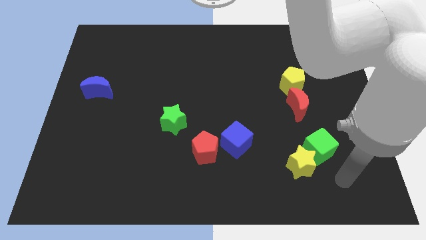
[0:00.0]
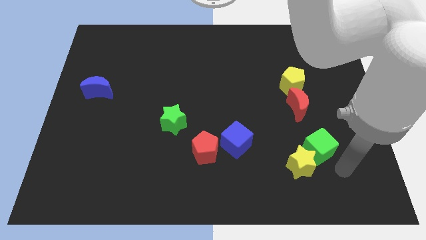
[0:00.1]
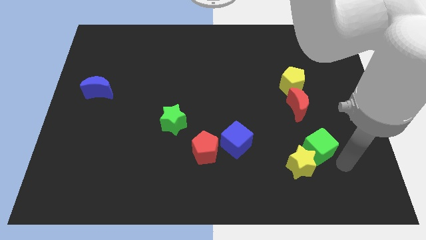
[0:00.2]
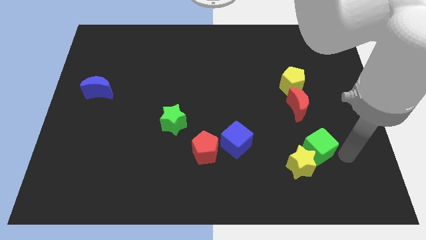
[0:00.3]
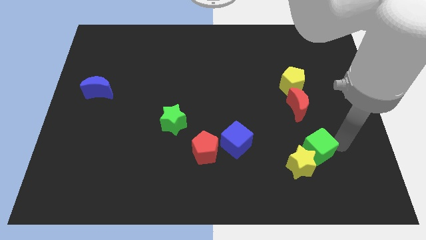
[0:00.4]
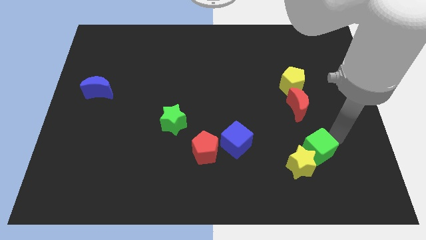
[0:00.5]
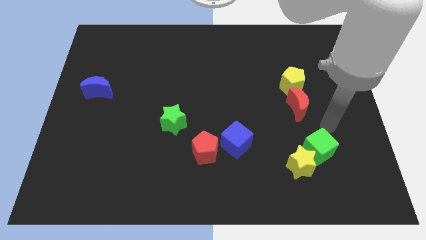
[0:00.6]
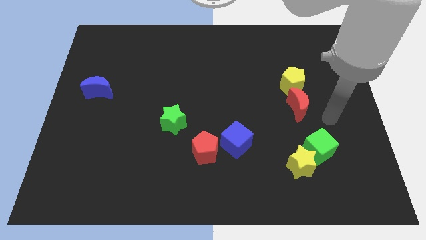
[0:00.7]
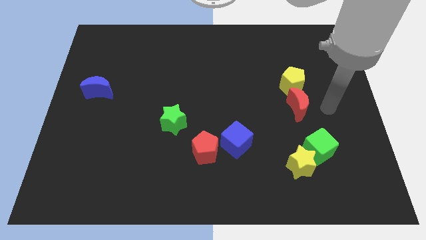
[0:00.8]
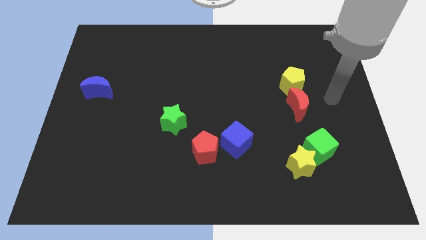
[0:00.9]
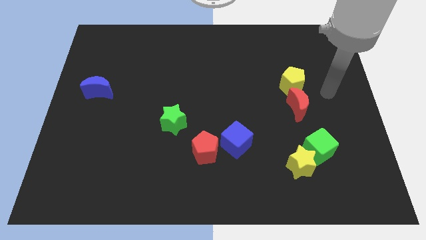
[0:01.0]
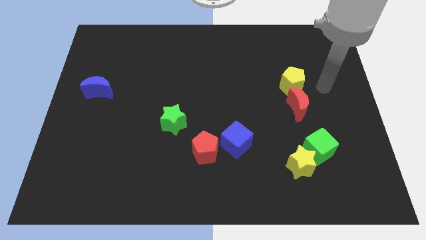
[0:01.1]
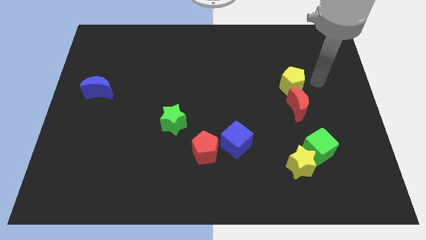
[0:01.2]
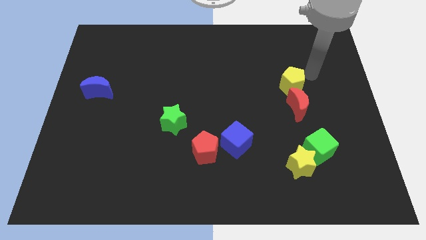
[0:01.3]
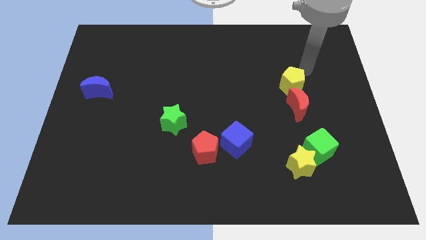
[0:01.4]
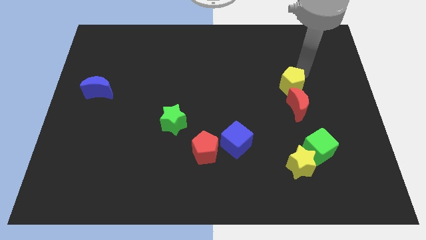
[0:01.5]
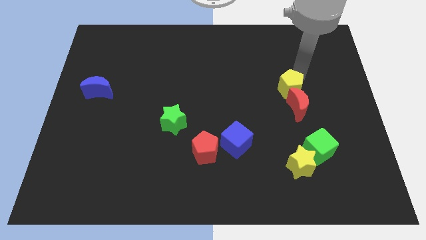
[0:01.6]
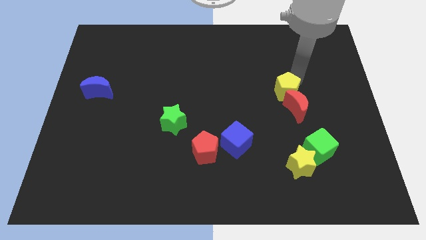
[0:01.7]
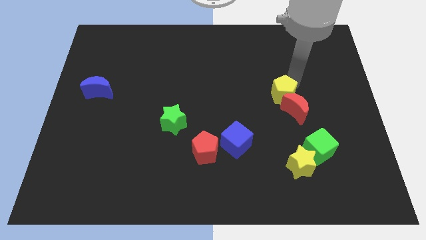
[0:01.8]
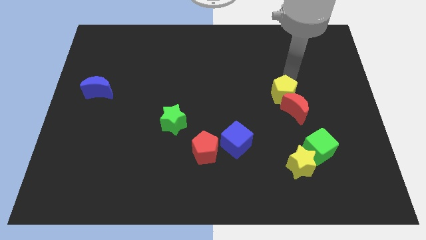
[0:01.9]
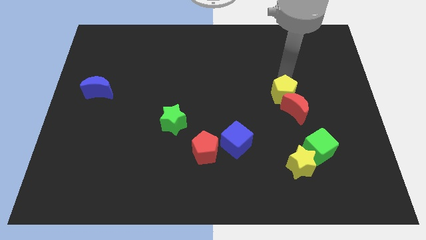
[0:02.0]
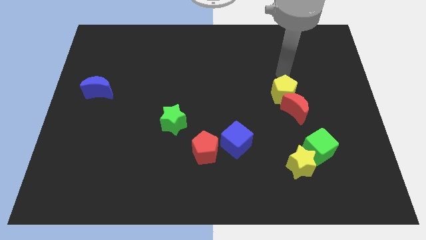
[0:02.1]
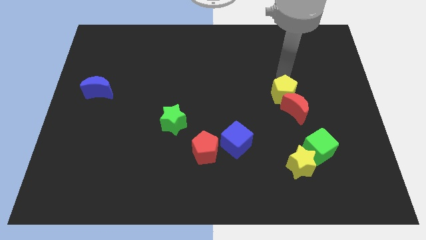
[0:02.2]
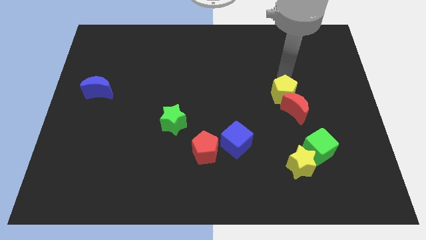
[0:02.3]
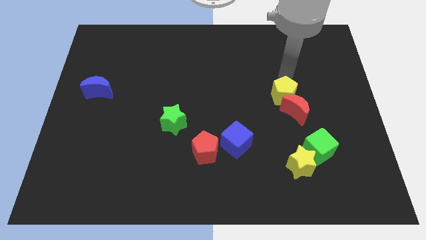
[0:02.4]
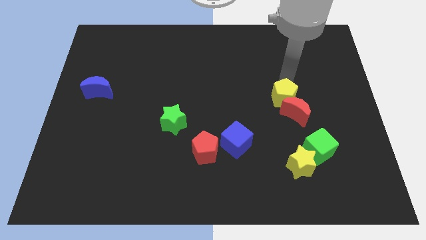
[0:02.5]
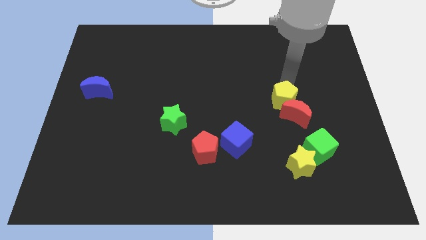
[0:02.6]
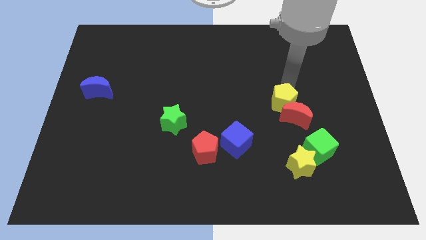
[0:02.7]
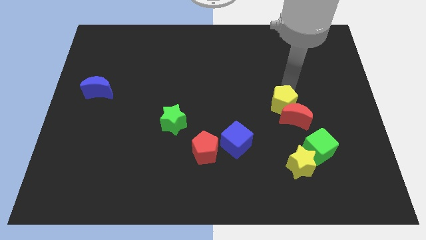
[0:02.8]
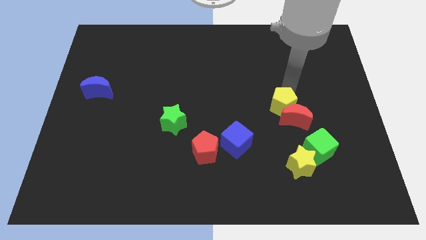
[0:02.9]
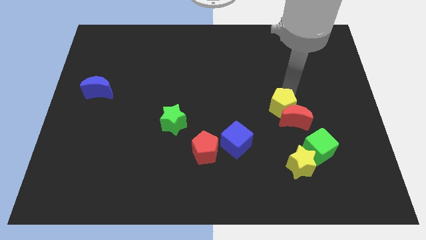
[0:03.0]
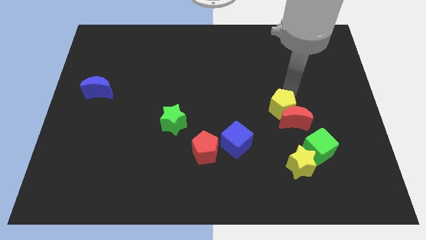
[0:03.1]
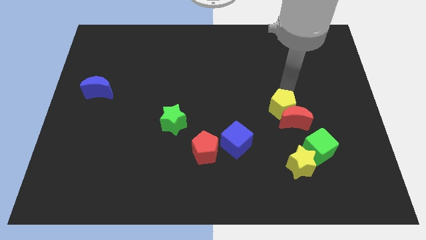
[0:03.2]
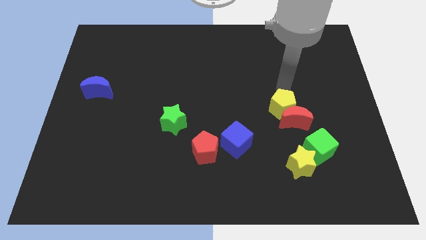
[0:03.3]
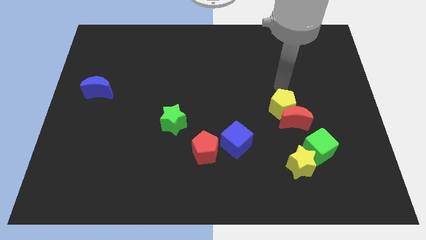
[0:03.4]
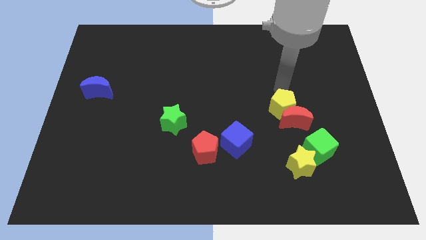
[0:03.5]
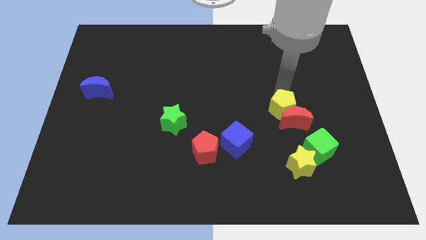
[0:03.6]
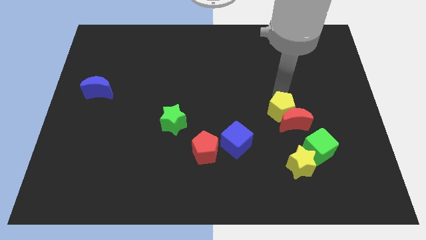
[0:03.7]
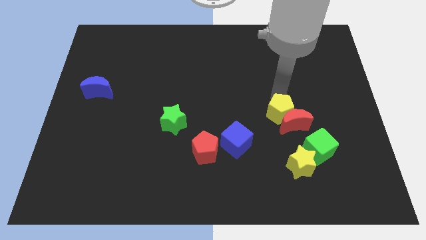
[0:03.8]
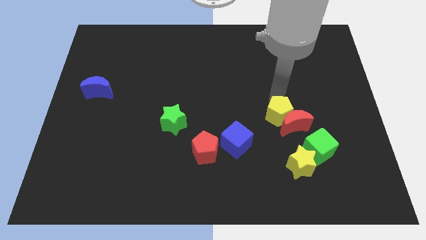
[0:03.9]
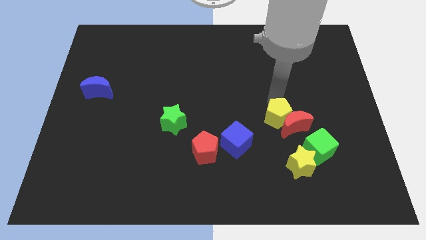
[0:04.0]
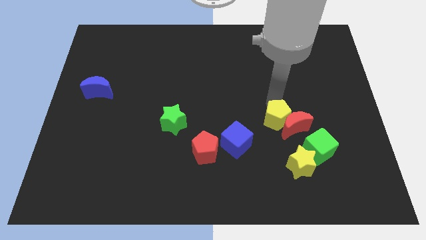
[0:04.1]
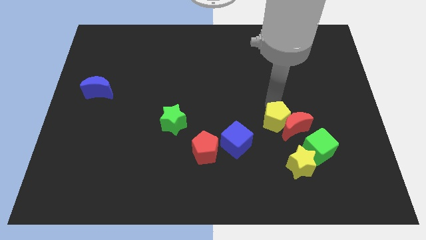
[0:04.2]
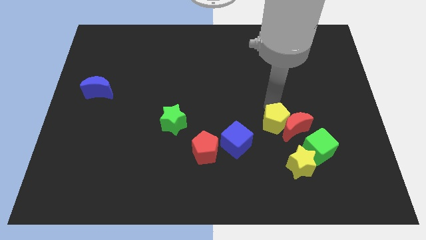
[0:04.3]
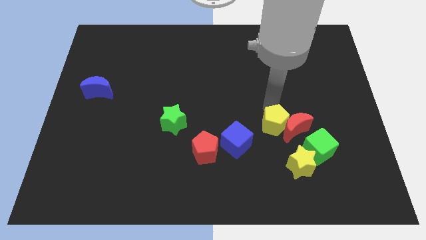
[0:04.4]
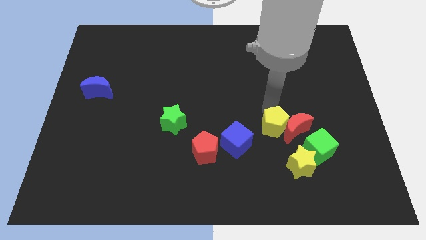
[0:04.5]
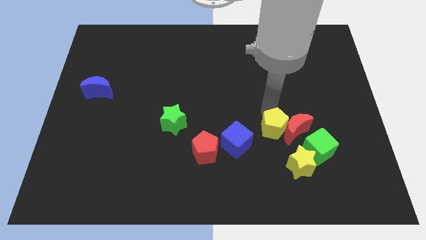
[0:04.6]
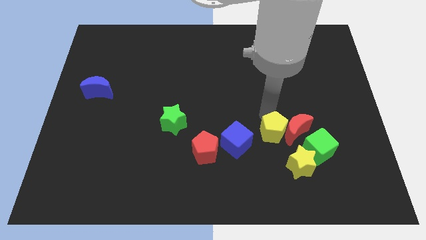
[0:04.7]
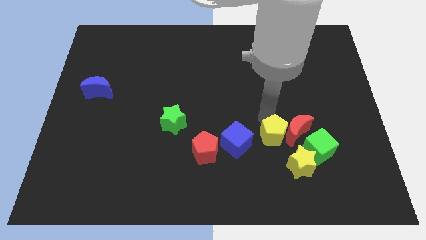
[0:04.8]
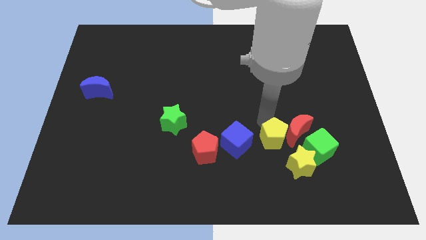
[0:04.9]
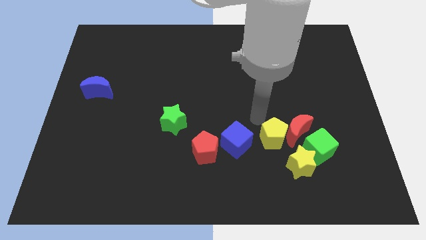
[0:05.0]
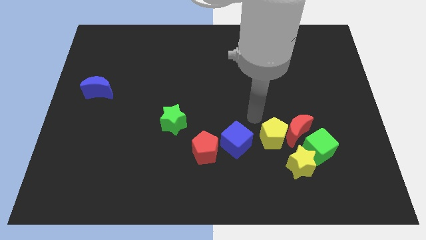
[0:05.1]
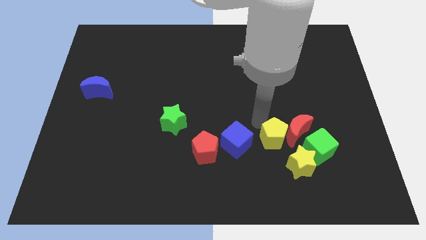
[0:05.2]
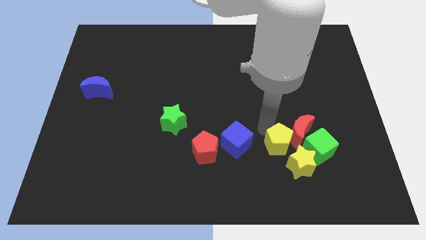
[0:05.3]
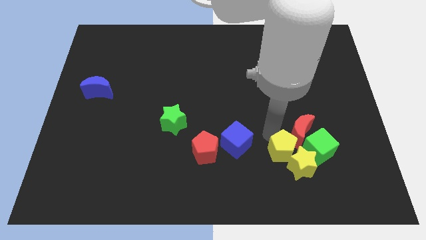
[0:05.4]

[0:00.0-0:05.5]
slide the yellow pentagon towards the yellow star

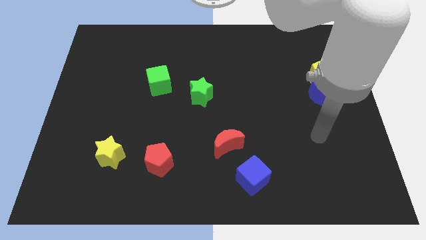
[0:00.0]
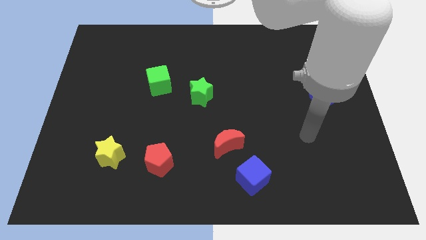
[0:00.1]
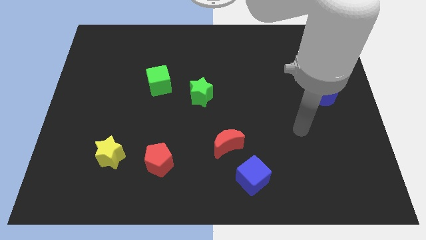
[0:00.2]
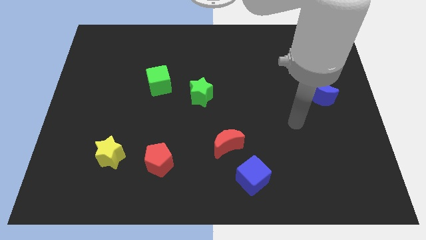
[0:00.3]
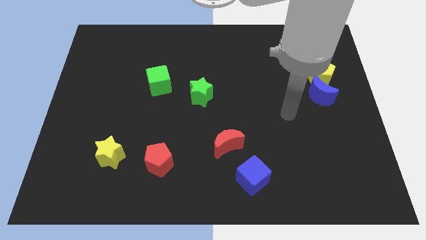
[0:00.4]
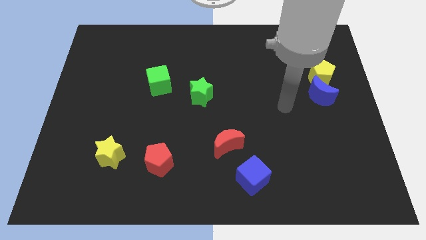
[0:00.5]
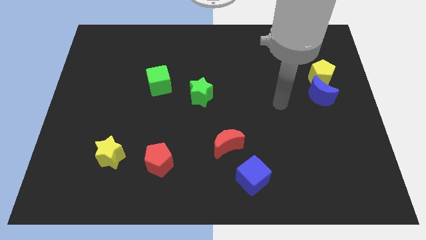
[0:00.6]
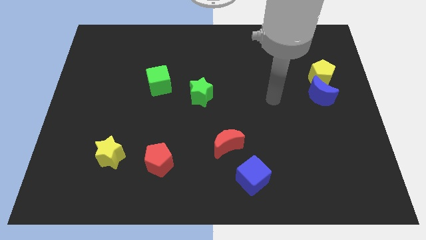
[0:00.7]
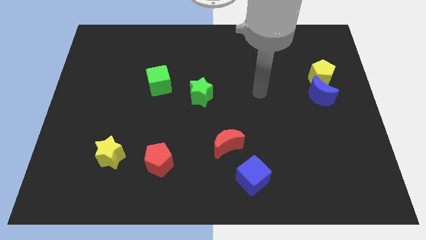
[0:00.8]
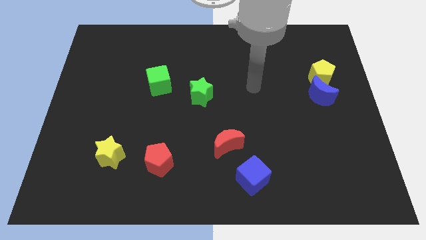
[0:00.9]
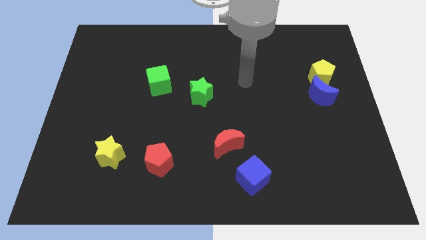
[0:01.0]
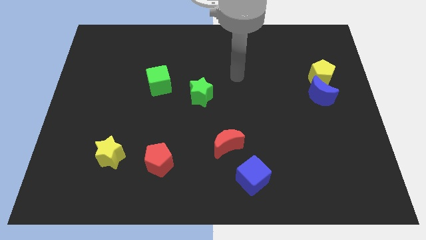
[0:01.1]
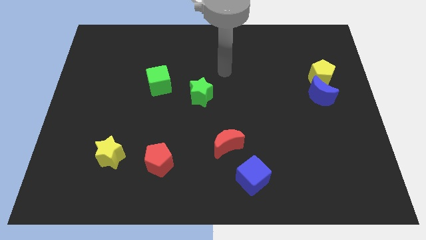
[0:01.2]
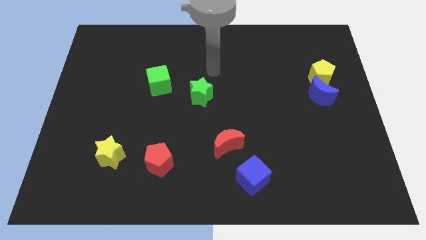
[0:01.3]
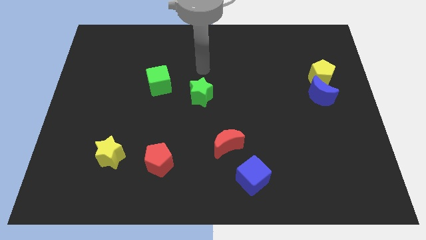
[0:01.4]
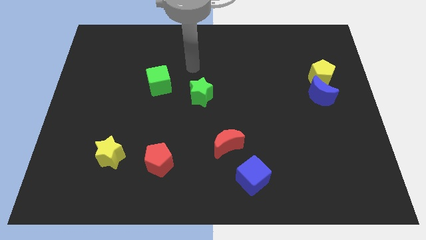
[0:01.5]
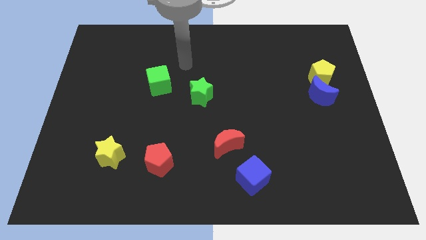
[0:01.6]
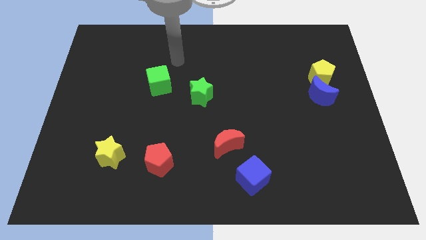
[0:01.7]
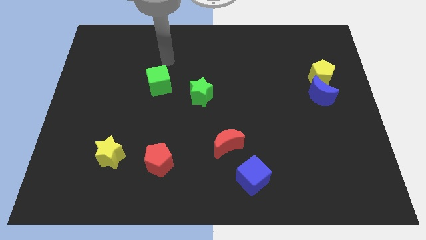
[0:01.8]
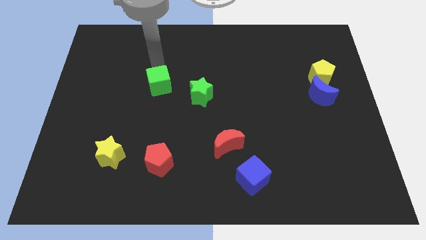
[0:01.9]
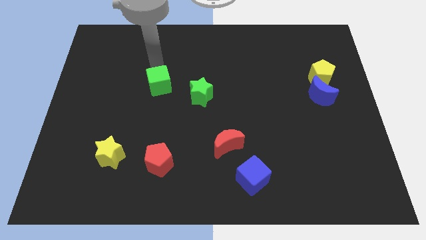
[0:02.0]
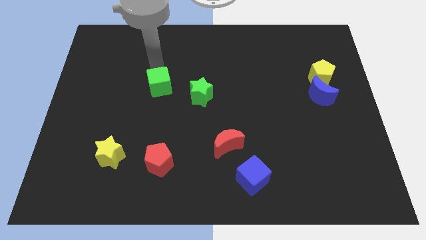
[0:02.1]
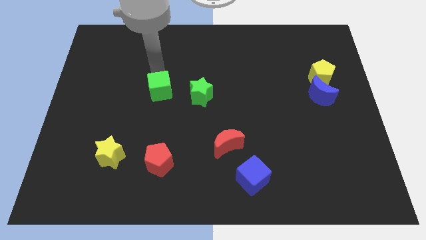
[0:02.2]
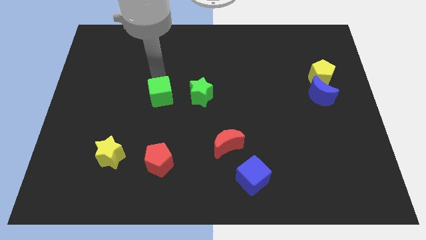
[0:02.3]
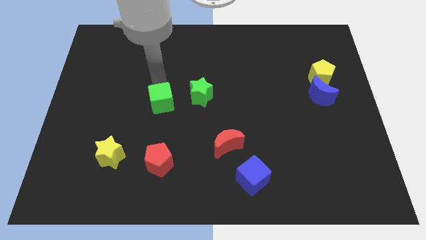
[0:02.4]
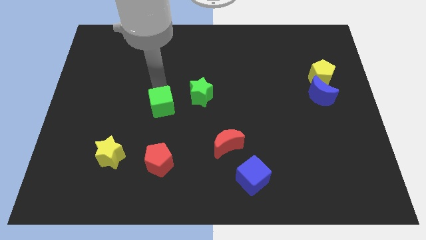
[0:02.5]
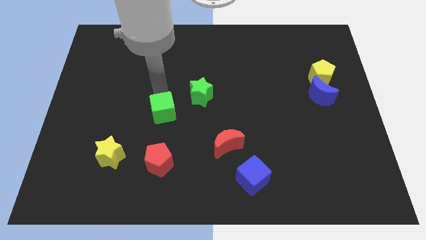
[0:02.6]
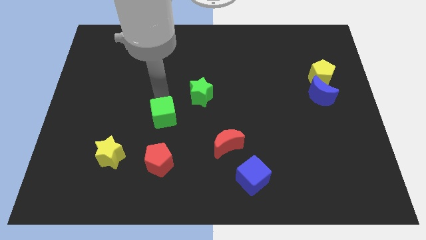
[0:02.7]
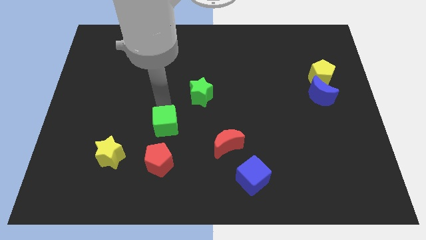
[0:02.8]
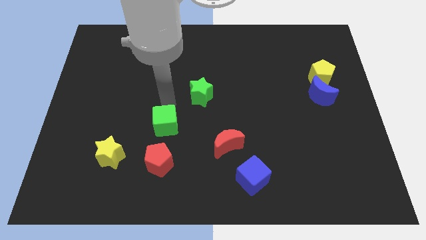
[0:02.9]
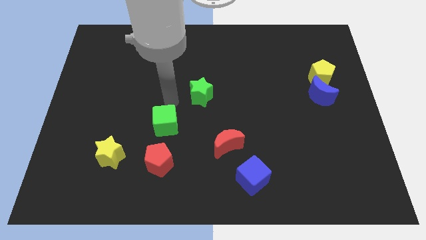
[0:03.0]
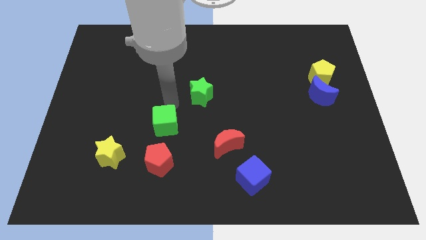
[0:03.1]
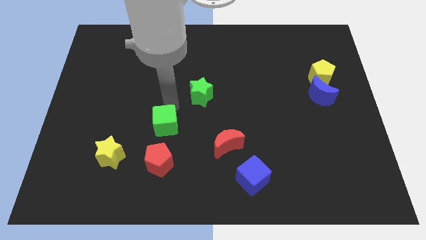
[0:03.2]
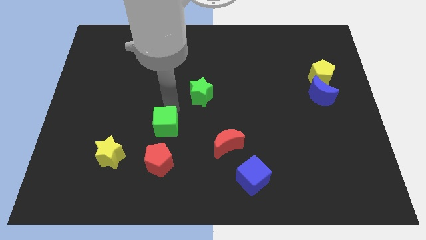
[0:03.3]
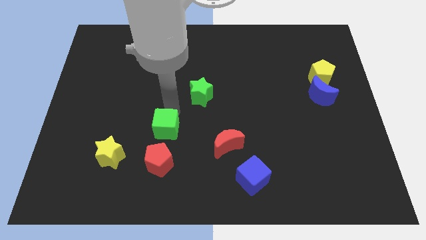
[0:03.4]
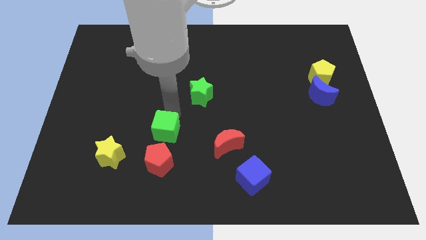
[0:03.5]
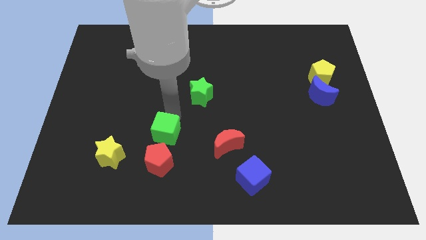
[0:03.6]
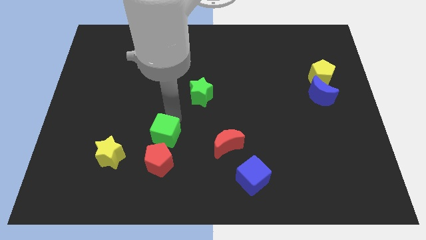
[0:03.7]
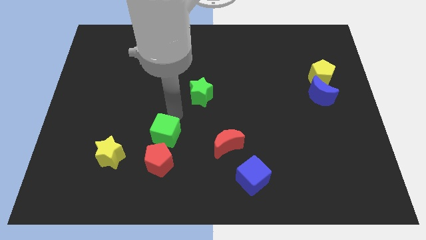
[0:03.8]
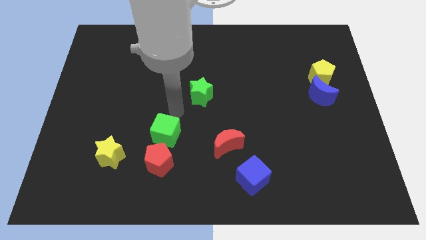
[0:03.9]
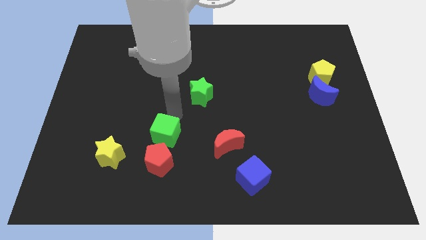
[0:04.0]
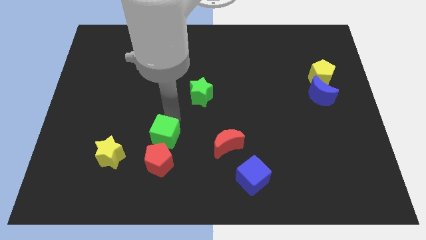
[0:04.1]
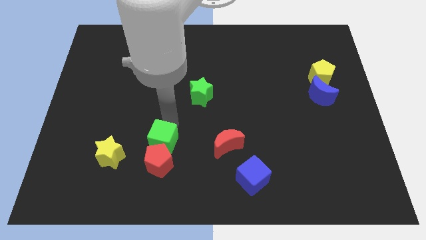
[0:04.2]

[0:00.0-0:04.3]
move the green cube next to the red pentagon
